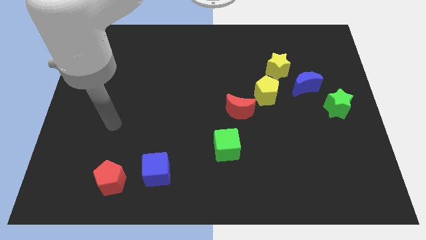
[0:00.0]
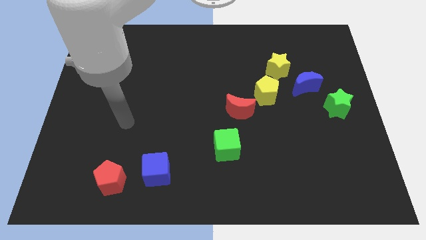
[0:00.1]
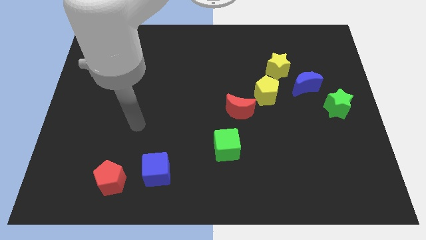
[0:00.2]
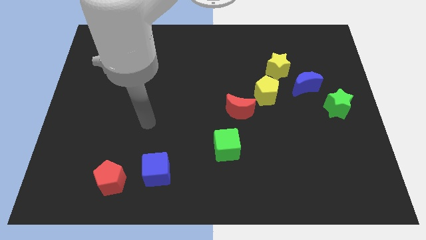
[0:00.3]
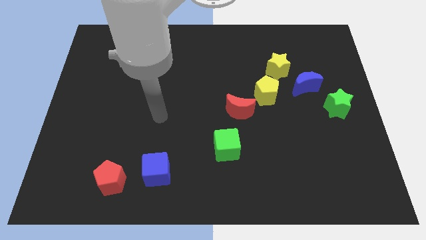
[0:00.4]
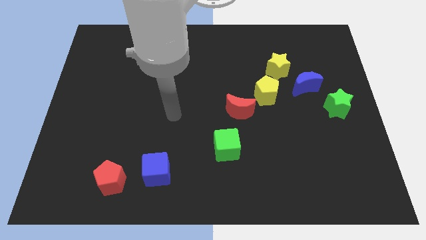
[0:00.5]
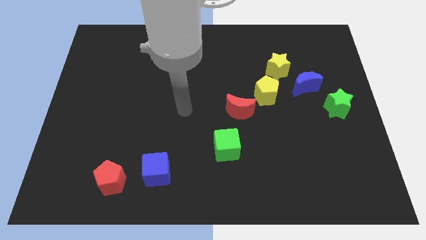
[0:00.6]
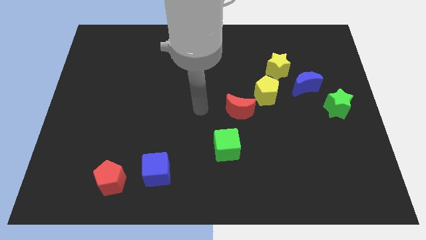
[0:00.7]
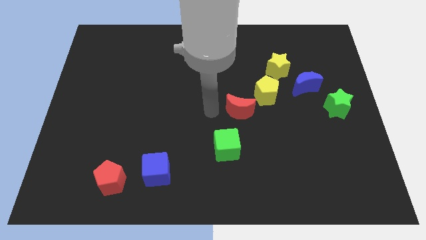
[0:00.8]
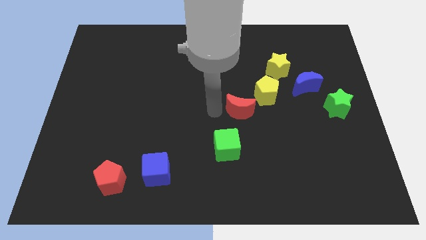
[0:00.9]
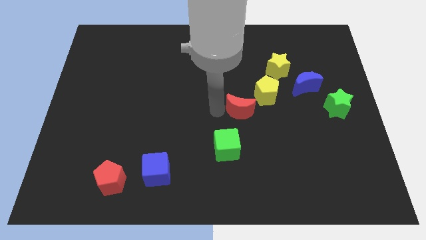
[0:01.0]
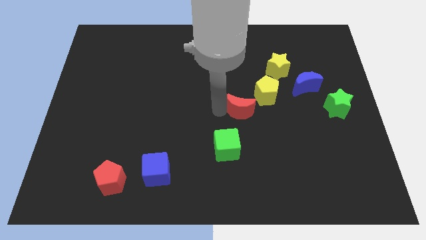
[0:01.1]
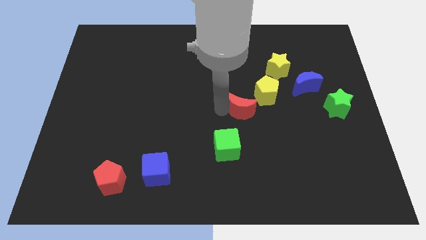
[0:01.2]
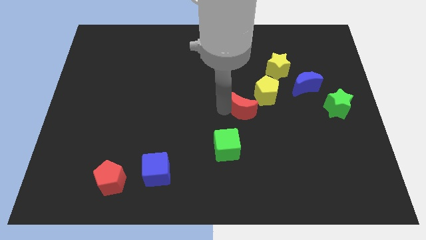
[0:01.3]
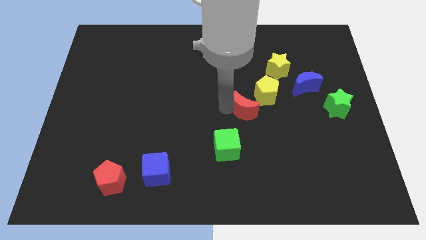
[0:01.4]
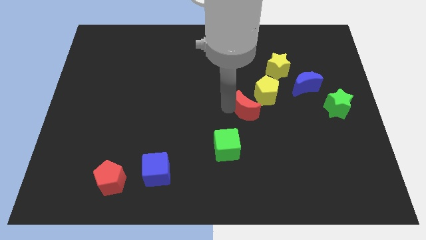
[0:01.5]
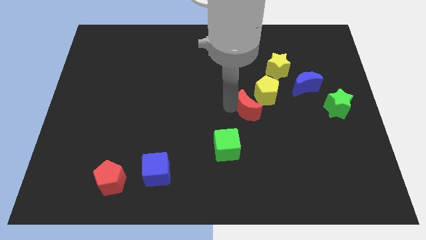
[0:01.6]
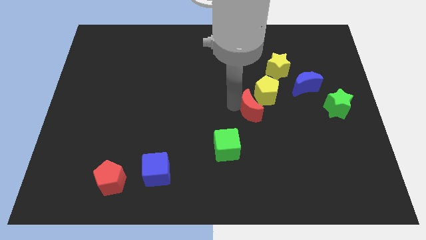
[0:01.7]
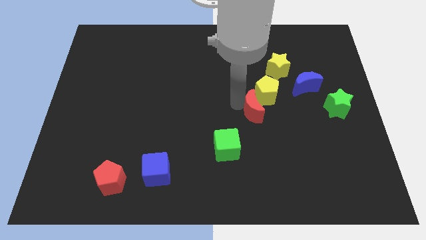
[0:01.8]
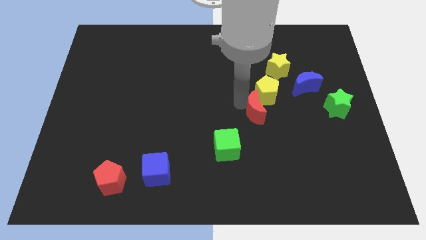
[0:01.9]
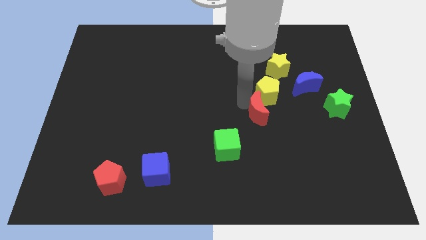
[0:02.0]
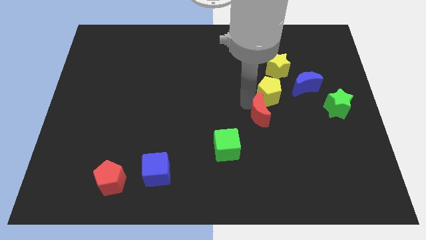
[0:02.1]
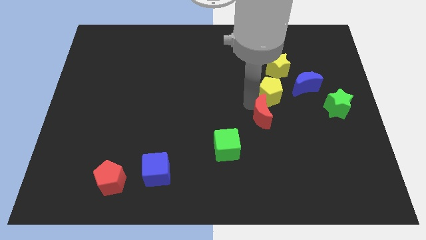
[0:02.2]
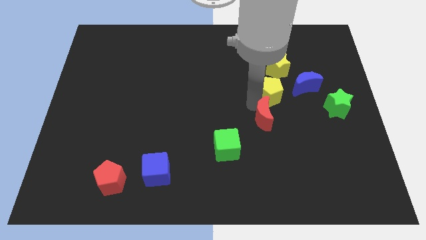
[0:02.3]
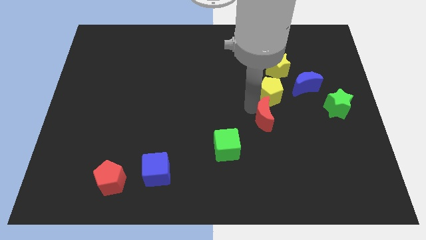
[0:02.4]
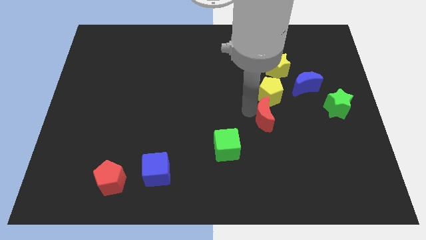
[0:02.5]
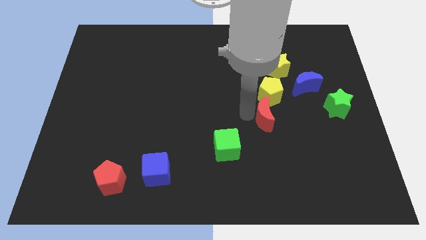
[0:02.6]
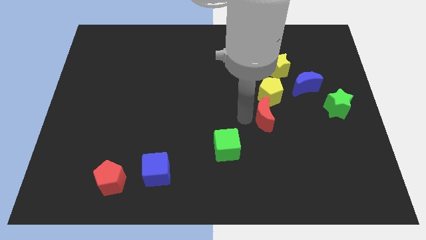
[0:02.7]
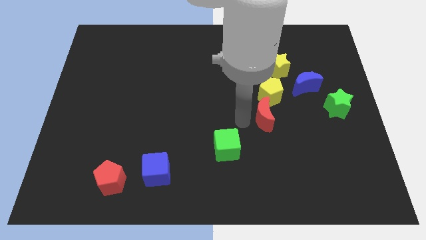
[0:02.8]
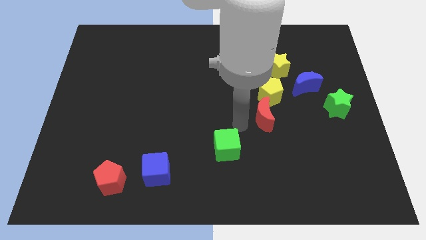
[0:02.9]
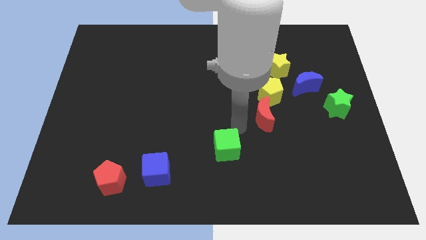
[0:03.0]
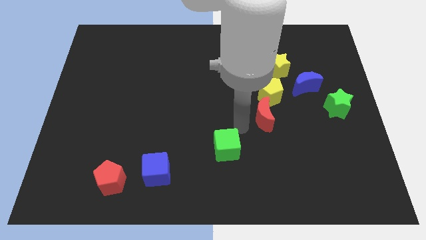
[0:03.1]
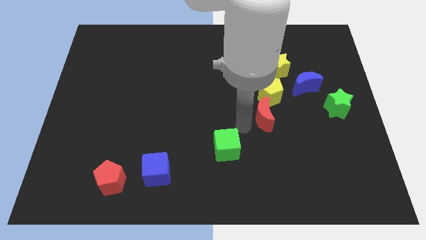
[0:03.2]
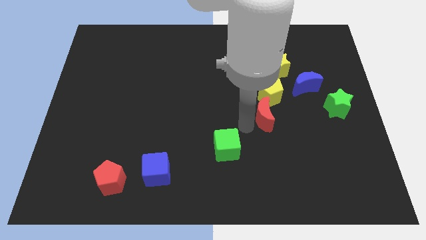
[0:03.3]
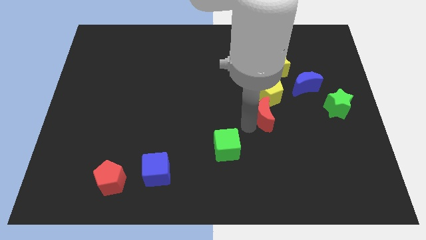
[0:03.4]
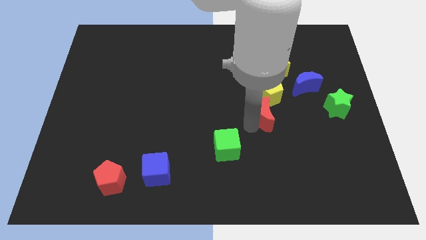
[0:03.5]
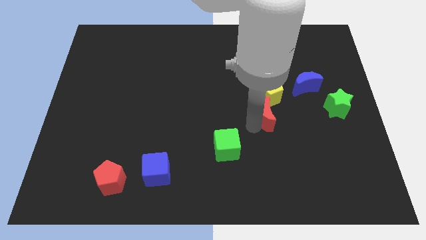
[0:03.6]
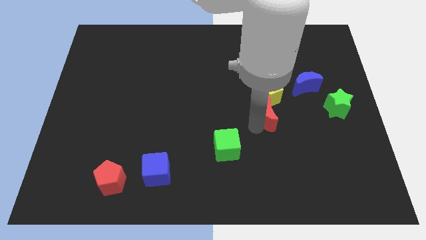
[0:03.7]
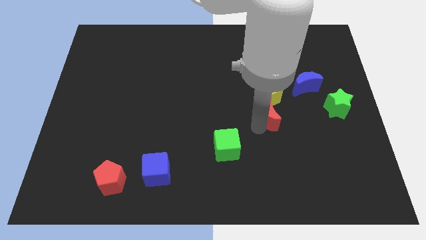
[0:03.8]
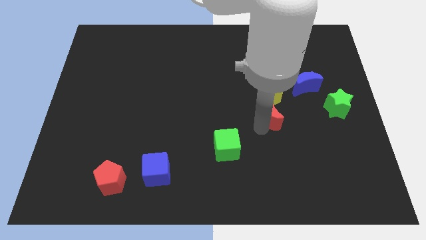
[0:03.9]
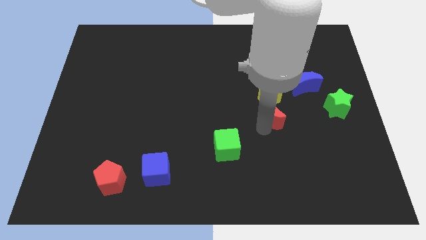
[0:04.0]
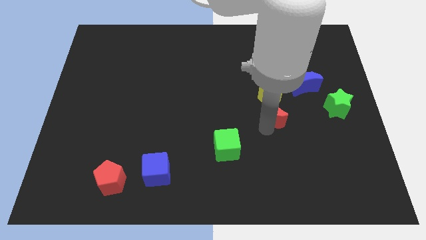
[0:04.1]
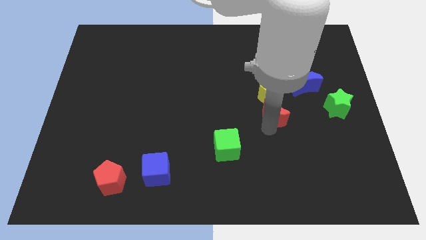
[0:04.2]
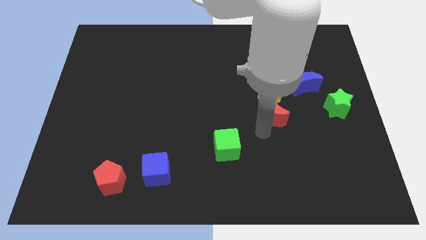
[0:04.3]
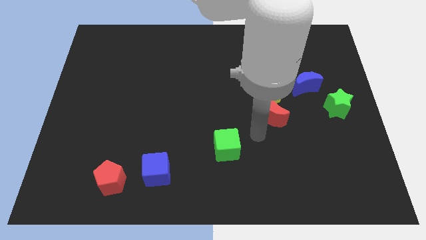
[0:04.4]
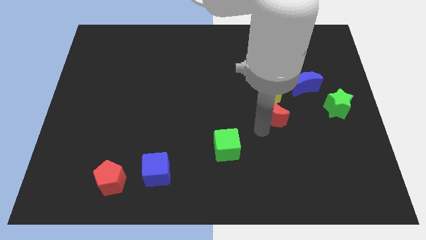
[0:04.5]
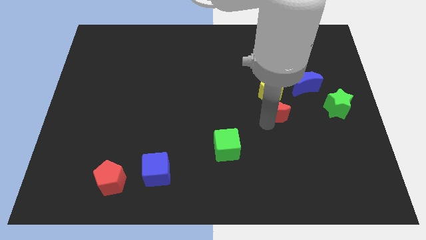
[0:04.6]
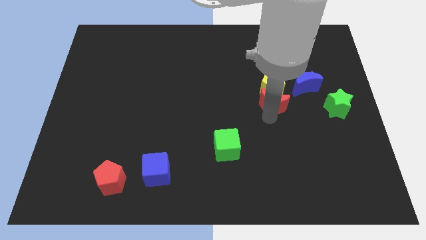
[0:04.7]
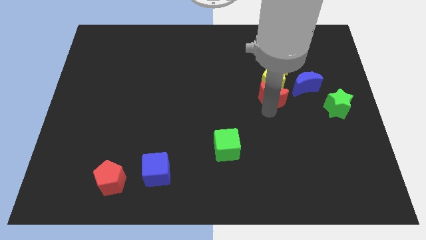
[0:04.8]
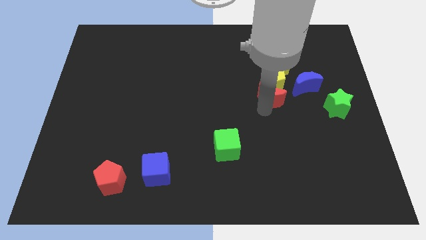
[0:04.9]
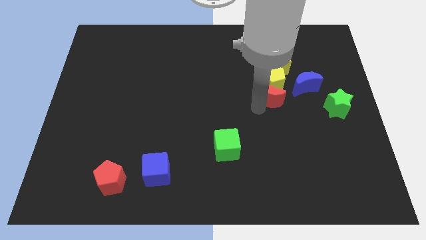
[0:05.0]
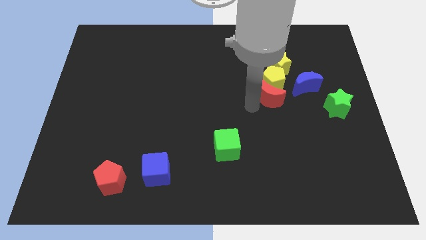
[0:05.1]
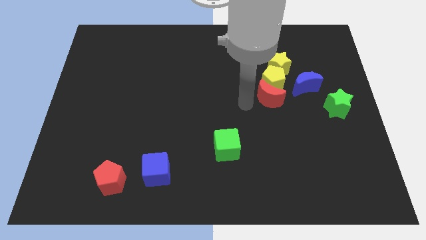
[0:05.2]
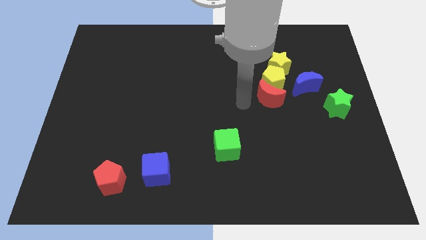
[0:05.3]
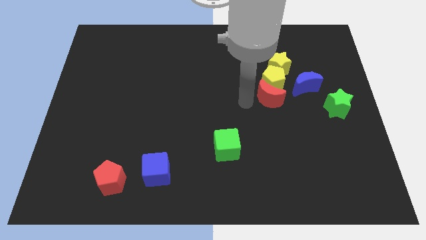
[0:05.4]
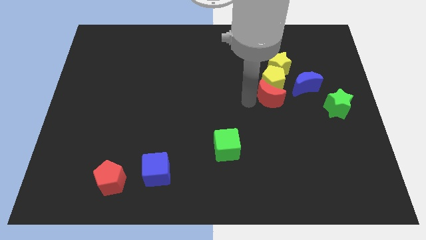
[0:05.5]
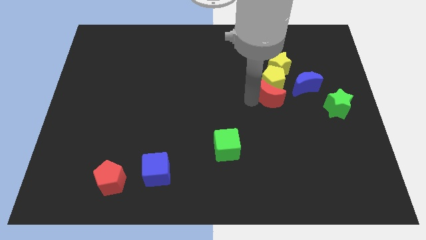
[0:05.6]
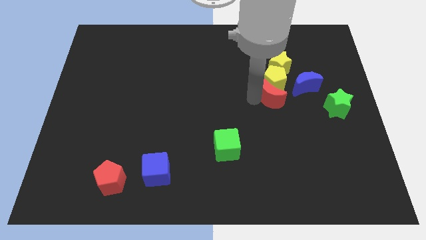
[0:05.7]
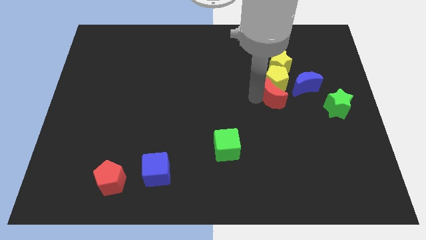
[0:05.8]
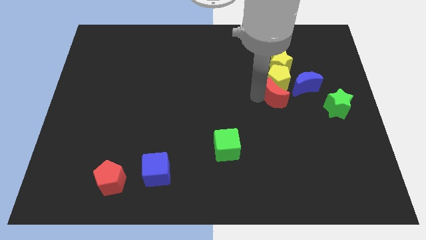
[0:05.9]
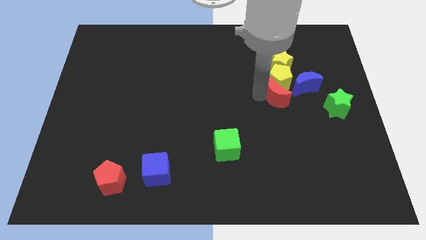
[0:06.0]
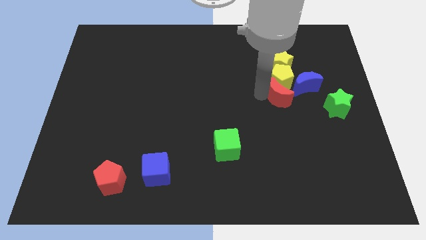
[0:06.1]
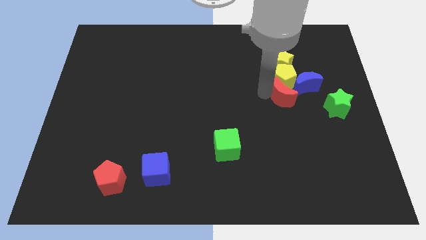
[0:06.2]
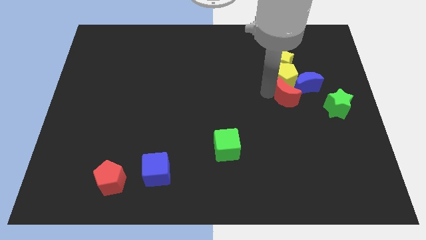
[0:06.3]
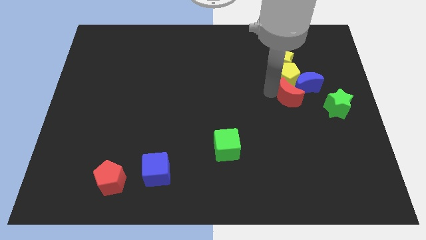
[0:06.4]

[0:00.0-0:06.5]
move the red moon towards the blue moon
